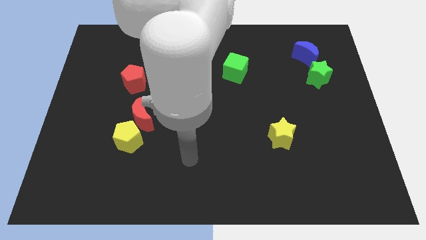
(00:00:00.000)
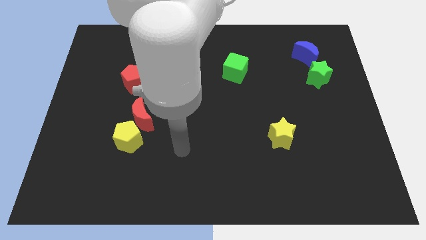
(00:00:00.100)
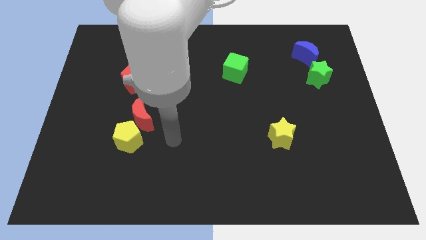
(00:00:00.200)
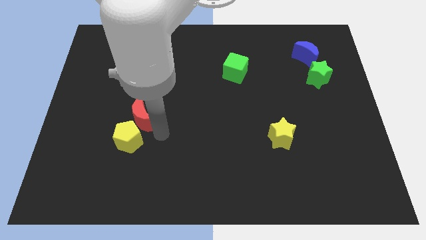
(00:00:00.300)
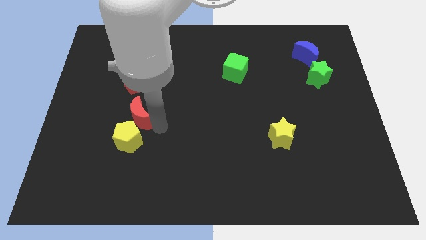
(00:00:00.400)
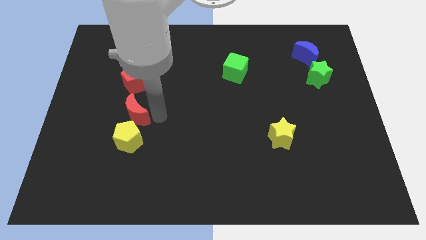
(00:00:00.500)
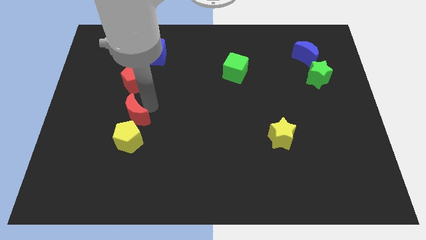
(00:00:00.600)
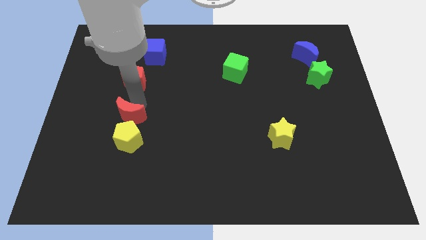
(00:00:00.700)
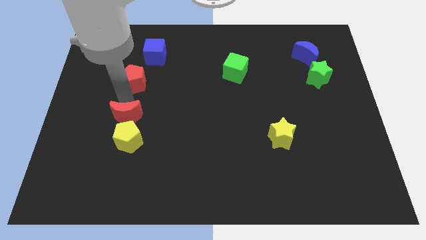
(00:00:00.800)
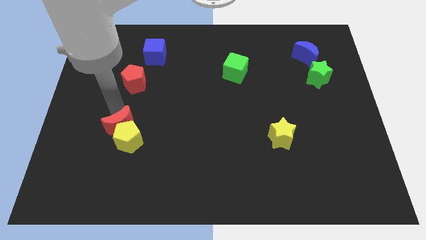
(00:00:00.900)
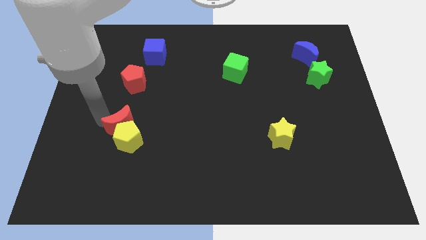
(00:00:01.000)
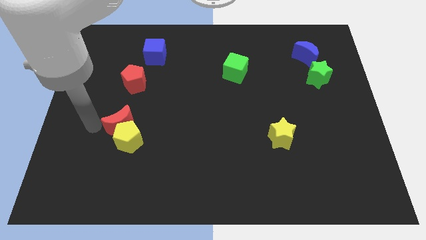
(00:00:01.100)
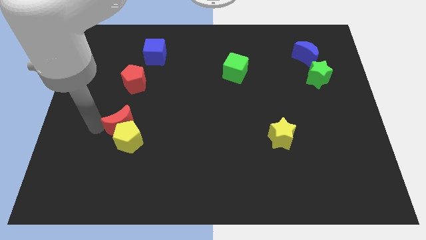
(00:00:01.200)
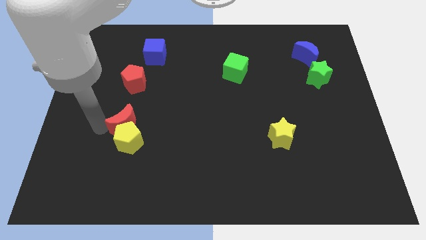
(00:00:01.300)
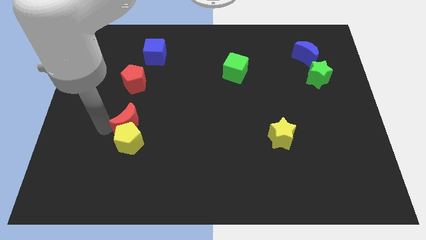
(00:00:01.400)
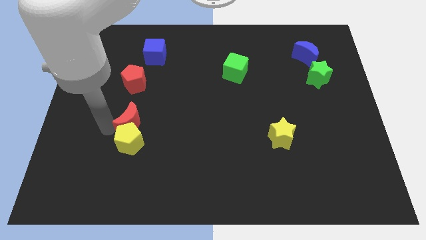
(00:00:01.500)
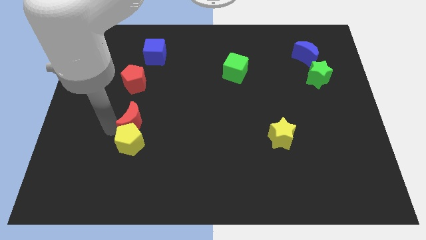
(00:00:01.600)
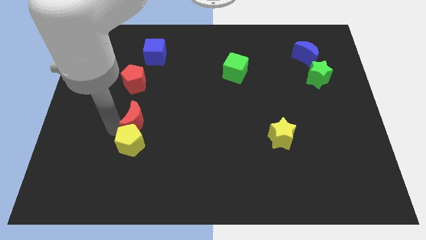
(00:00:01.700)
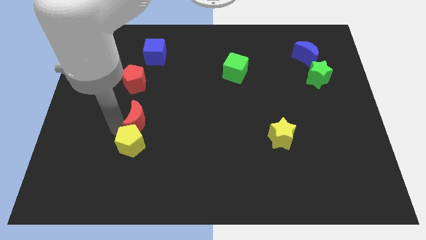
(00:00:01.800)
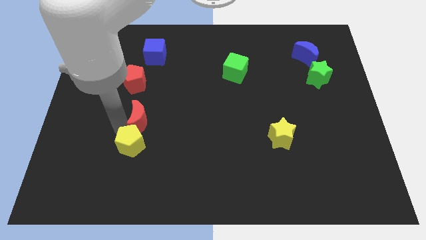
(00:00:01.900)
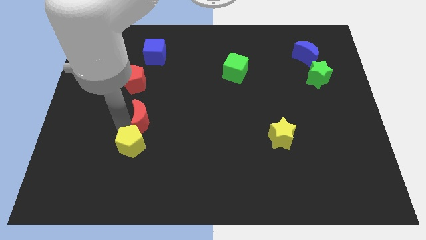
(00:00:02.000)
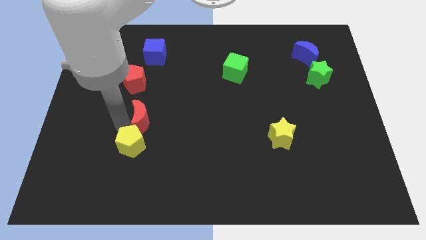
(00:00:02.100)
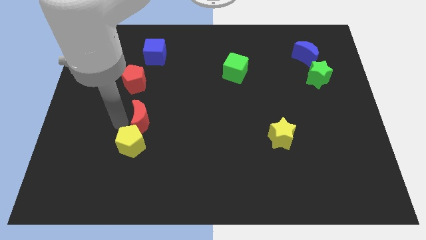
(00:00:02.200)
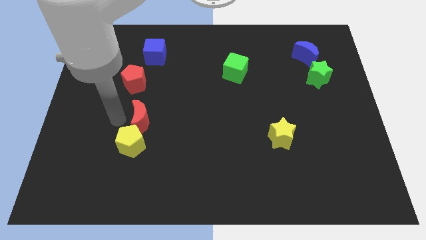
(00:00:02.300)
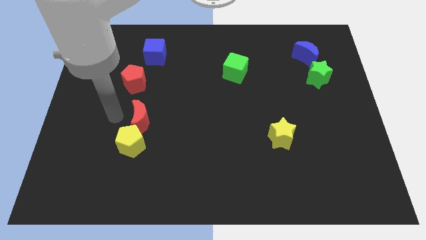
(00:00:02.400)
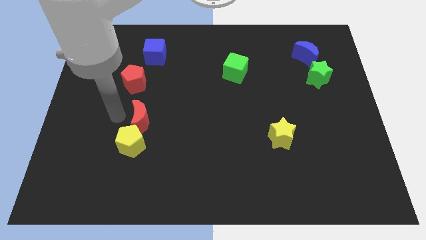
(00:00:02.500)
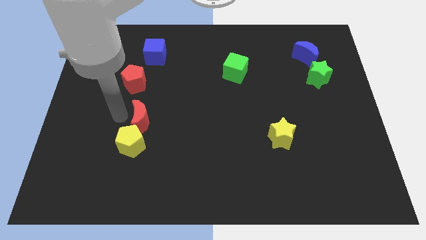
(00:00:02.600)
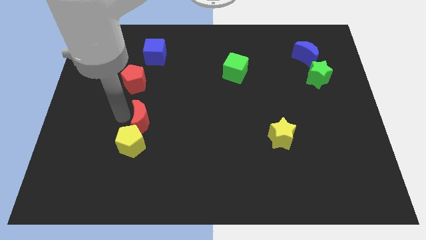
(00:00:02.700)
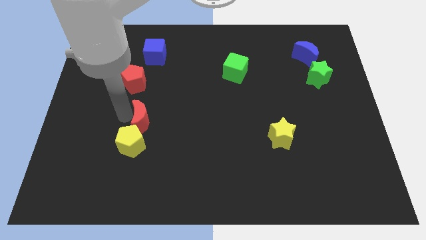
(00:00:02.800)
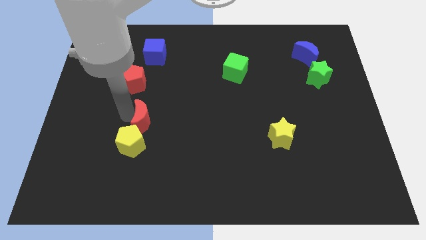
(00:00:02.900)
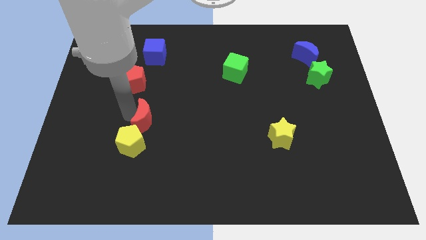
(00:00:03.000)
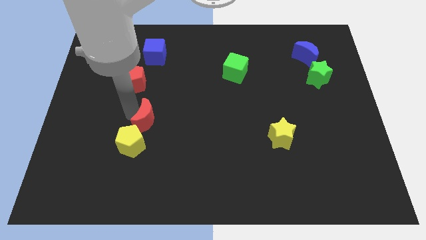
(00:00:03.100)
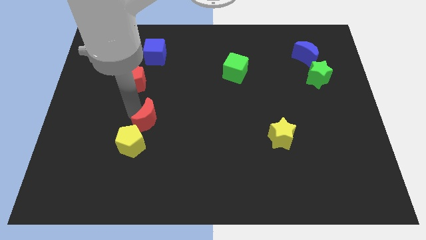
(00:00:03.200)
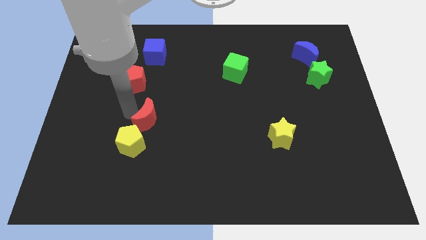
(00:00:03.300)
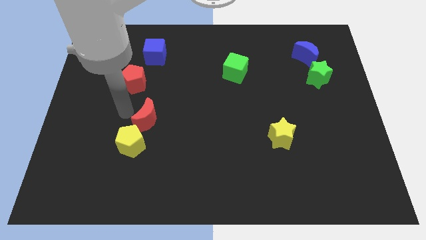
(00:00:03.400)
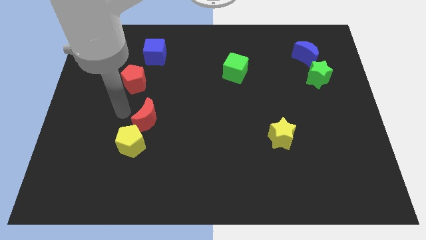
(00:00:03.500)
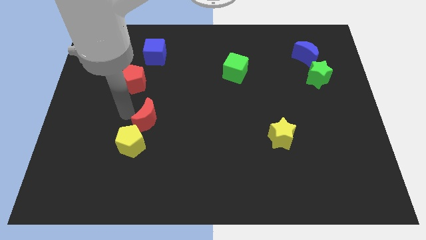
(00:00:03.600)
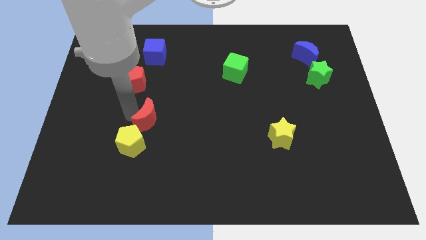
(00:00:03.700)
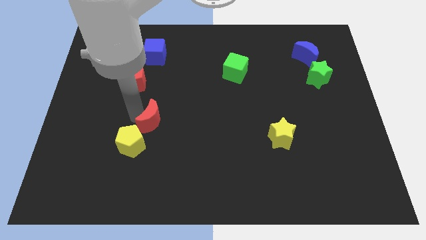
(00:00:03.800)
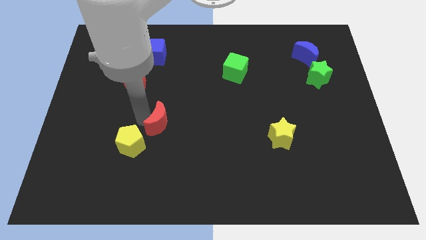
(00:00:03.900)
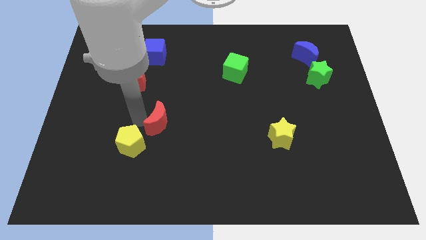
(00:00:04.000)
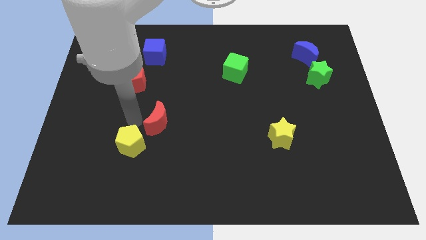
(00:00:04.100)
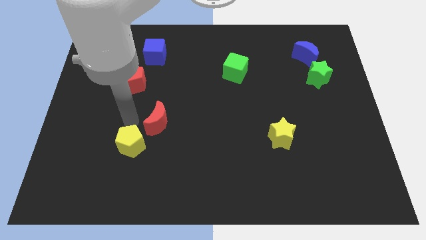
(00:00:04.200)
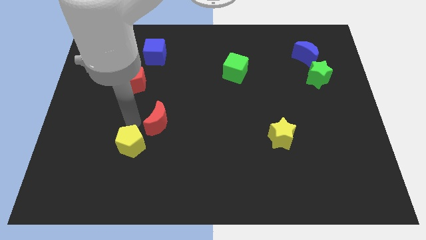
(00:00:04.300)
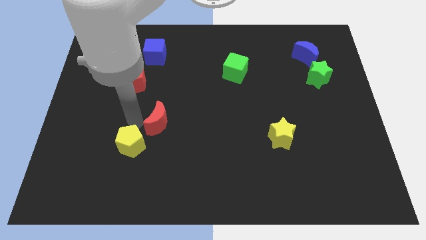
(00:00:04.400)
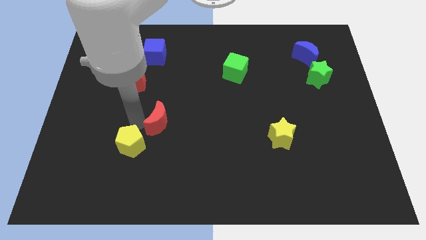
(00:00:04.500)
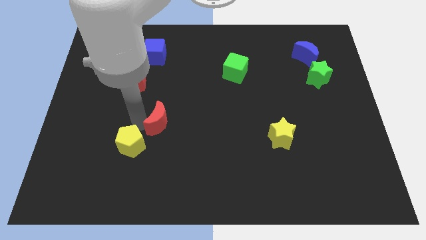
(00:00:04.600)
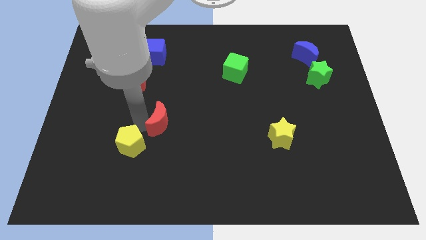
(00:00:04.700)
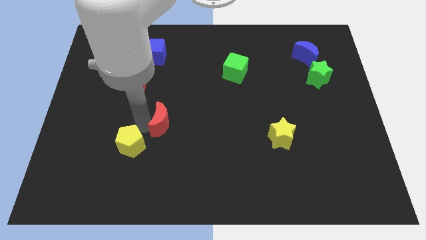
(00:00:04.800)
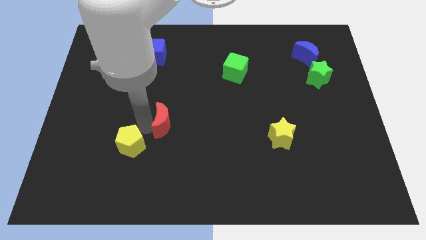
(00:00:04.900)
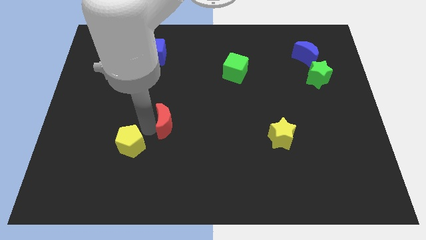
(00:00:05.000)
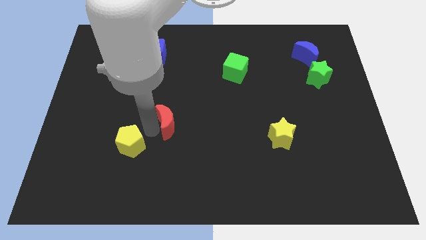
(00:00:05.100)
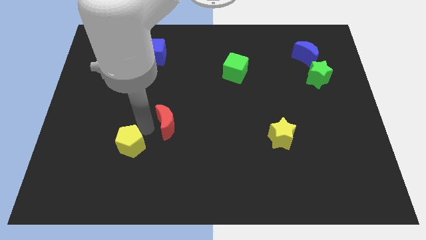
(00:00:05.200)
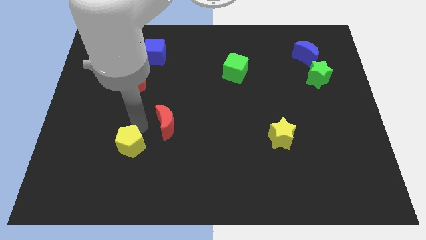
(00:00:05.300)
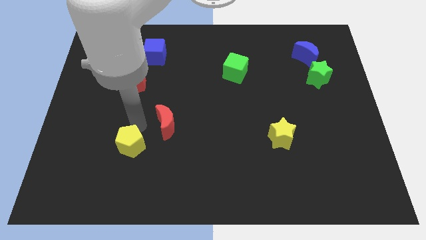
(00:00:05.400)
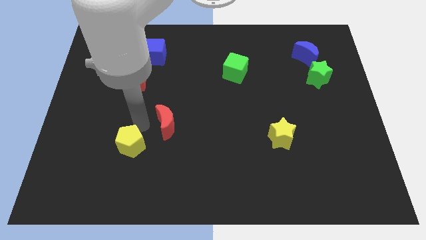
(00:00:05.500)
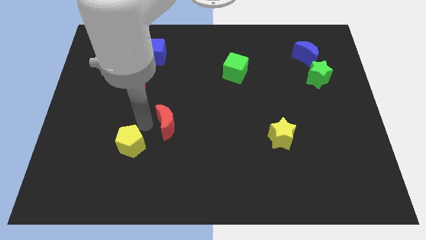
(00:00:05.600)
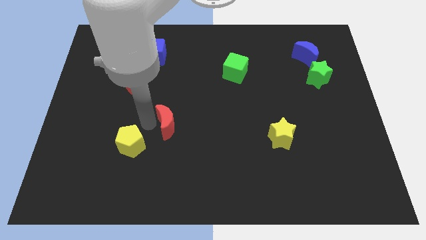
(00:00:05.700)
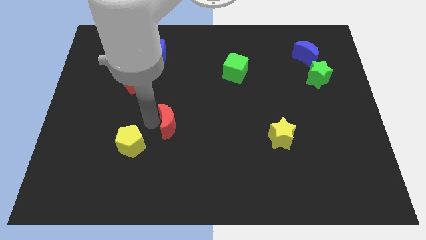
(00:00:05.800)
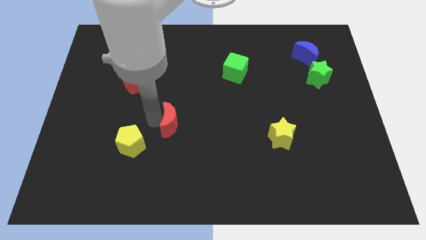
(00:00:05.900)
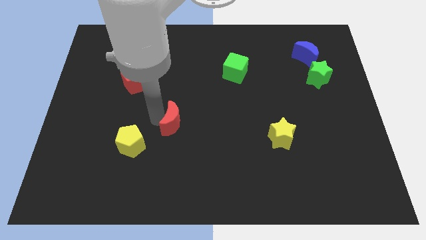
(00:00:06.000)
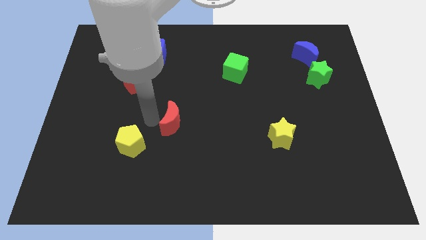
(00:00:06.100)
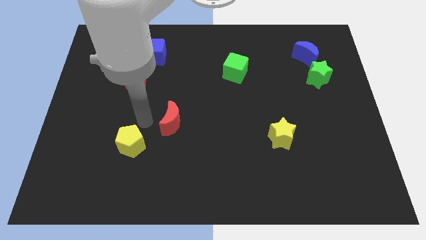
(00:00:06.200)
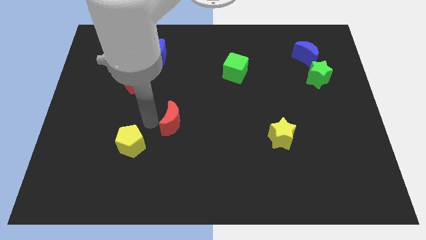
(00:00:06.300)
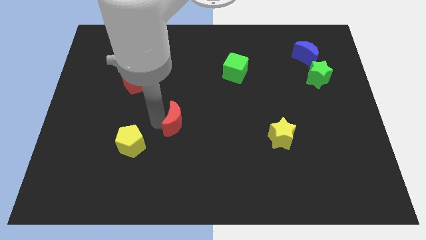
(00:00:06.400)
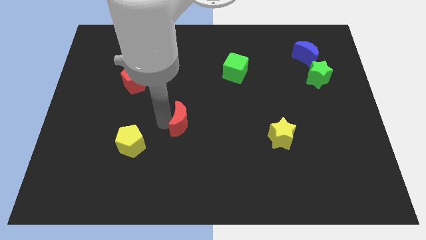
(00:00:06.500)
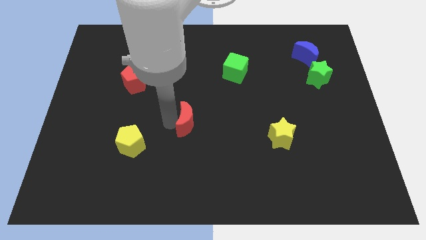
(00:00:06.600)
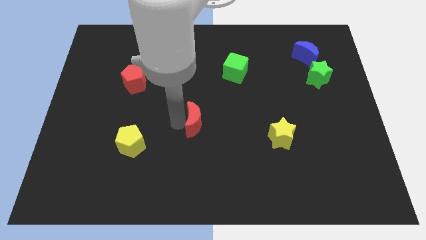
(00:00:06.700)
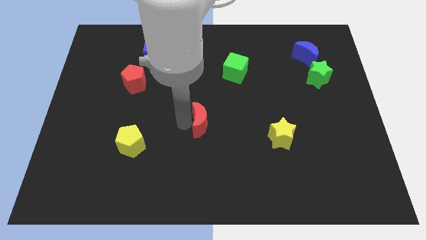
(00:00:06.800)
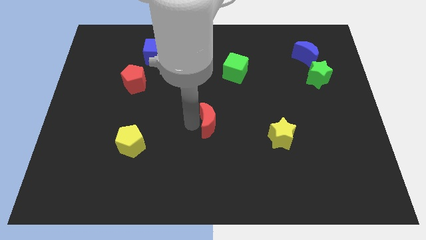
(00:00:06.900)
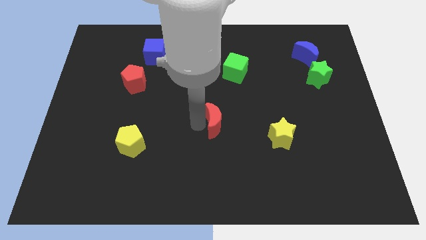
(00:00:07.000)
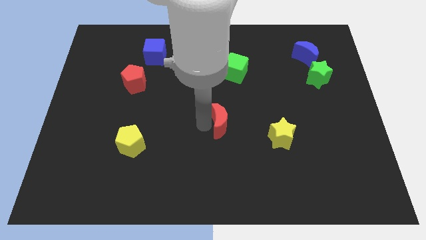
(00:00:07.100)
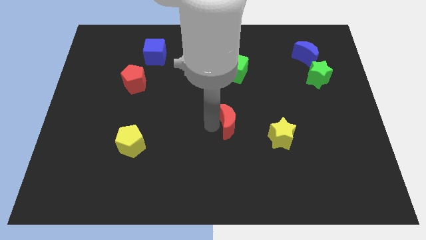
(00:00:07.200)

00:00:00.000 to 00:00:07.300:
move the red moon right

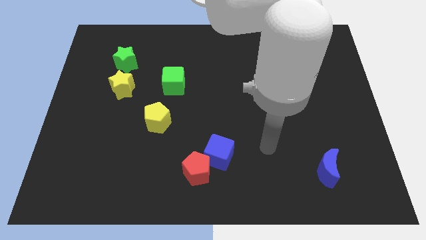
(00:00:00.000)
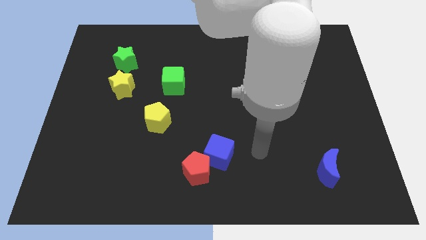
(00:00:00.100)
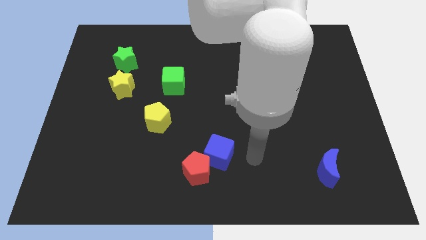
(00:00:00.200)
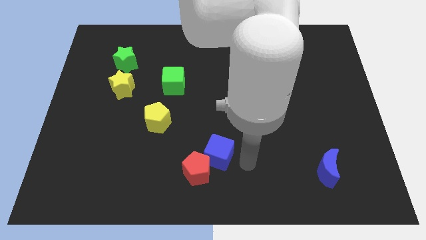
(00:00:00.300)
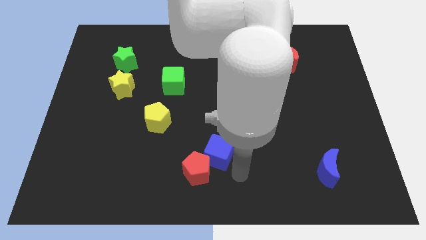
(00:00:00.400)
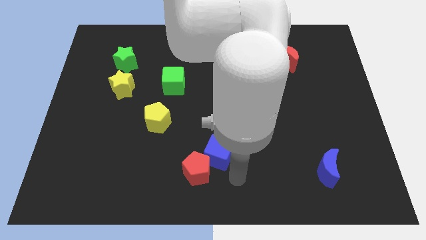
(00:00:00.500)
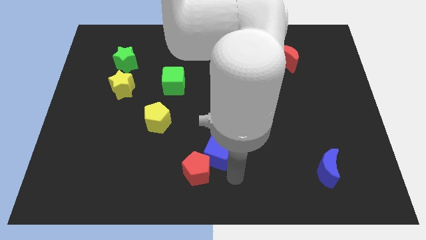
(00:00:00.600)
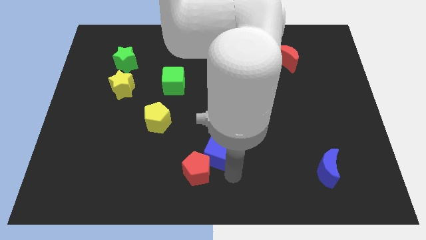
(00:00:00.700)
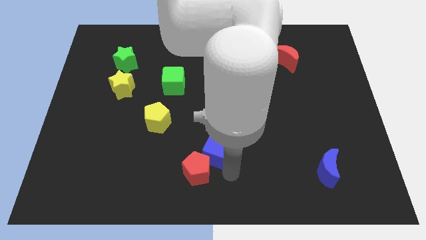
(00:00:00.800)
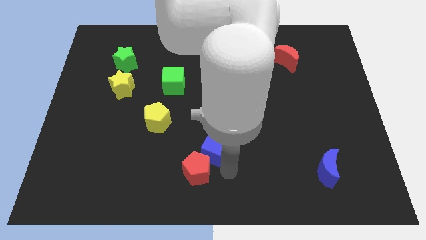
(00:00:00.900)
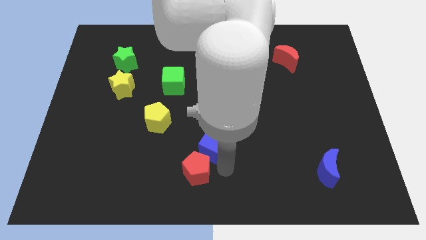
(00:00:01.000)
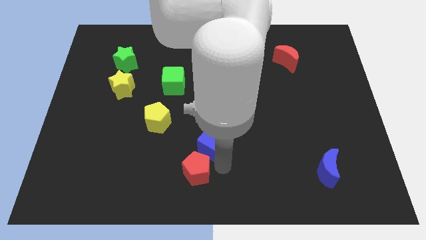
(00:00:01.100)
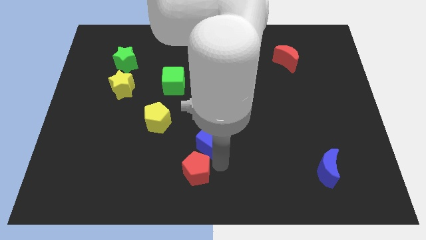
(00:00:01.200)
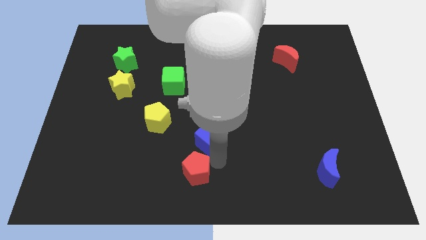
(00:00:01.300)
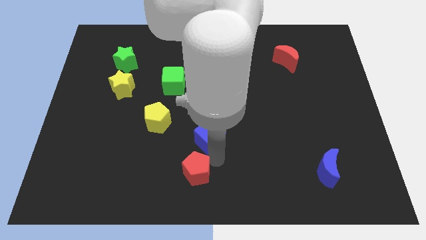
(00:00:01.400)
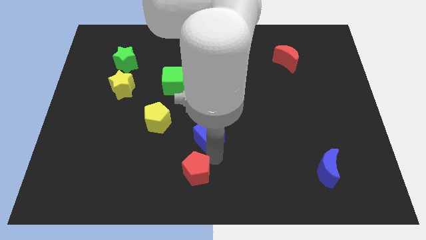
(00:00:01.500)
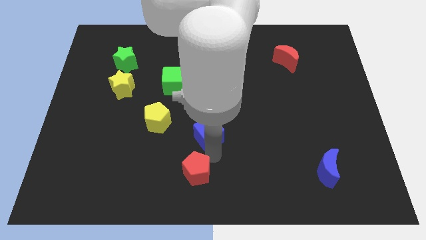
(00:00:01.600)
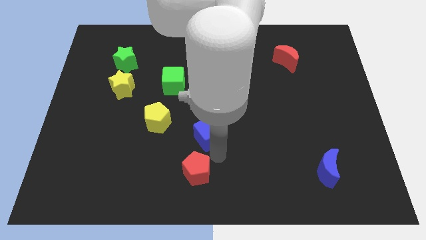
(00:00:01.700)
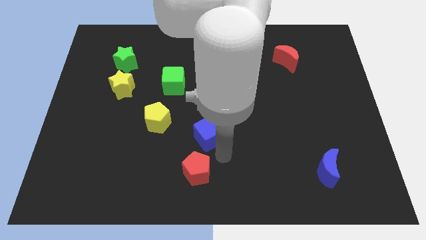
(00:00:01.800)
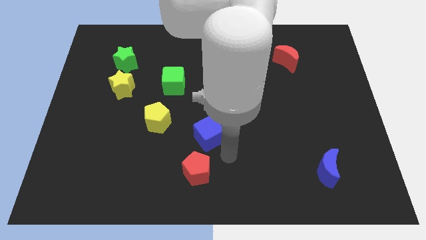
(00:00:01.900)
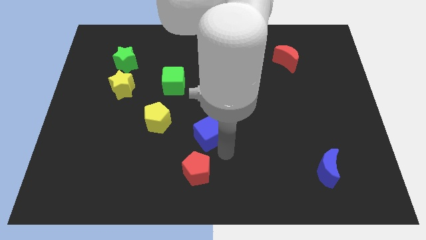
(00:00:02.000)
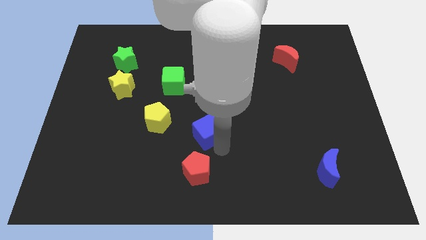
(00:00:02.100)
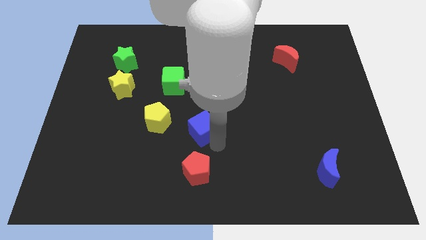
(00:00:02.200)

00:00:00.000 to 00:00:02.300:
slide the blue cube upwards and to the left a little
